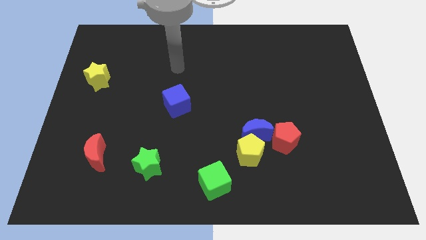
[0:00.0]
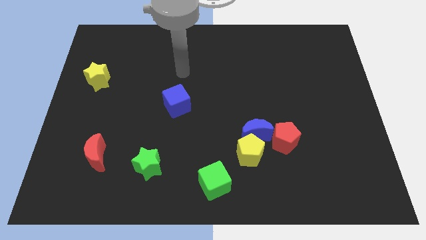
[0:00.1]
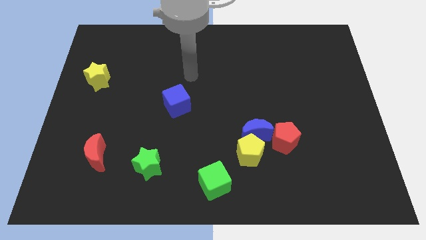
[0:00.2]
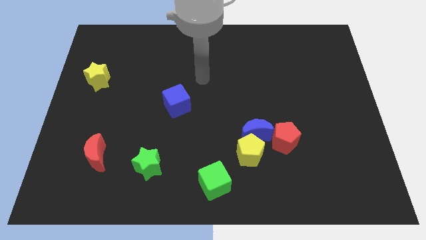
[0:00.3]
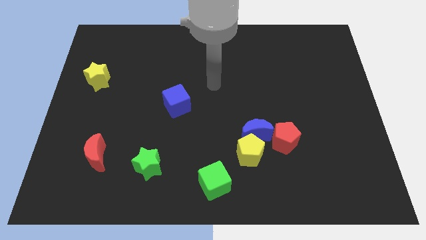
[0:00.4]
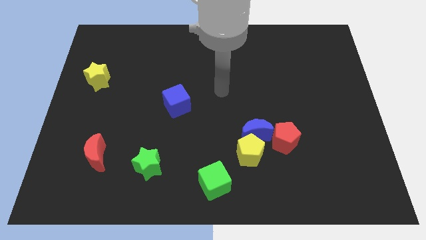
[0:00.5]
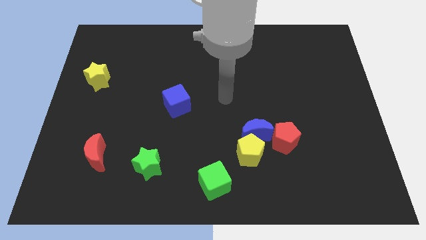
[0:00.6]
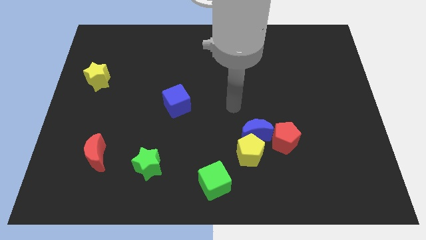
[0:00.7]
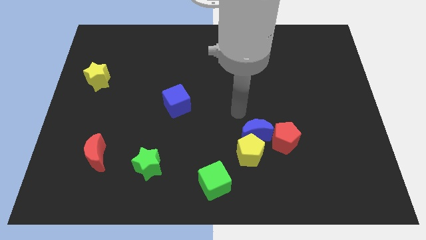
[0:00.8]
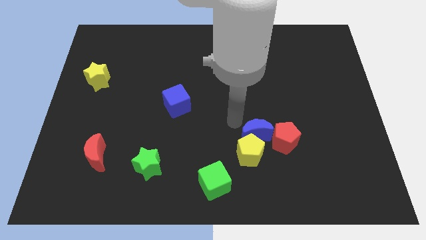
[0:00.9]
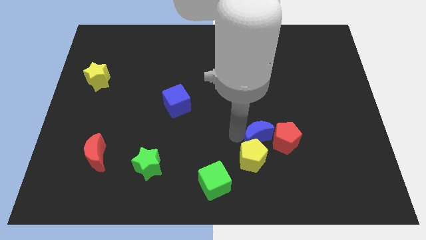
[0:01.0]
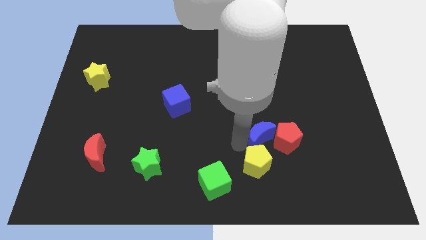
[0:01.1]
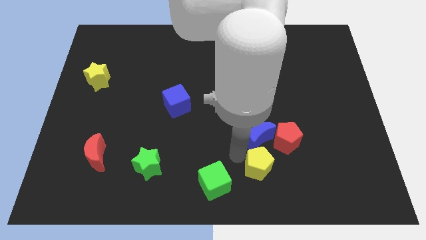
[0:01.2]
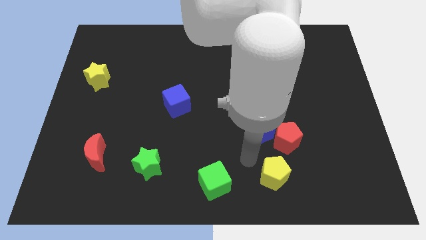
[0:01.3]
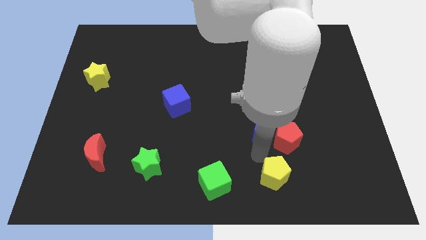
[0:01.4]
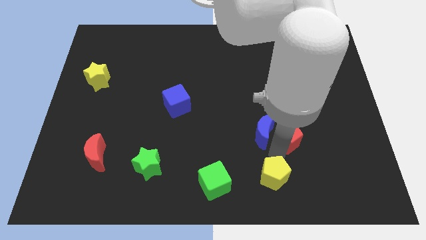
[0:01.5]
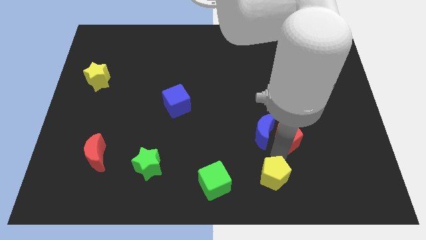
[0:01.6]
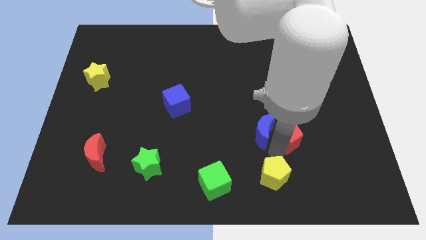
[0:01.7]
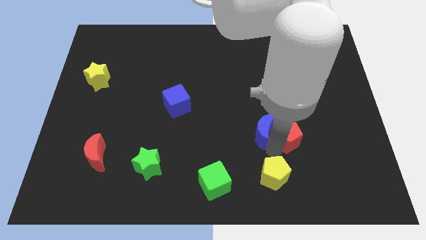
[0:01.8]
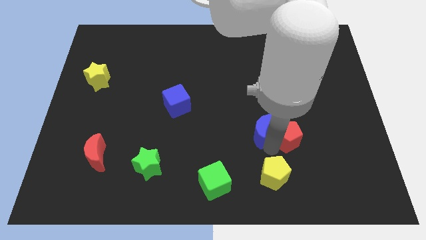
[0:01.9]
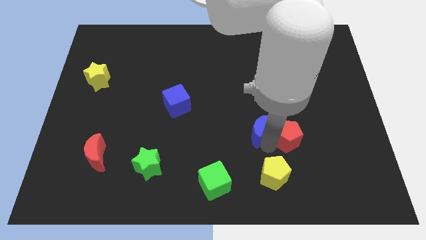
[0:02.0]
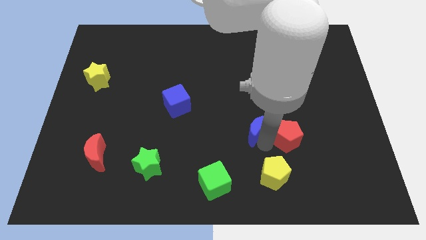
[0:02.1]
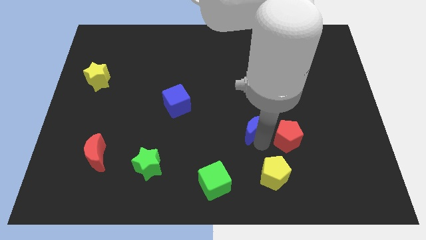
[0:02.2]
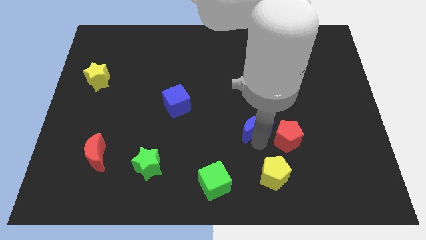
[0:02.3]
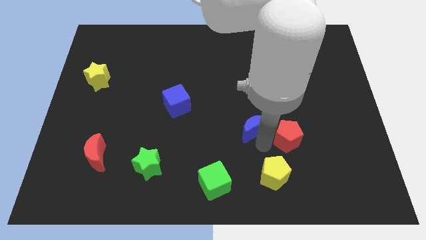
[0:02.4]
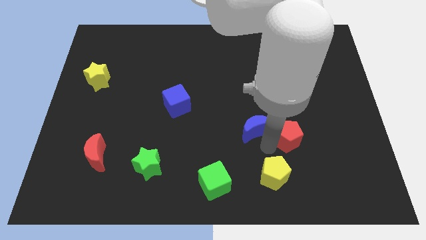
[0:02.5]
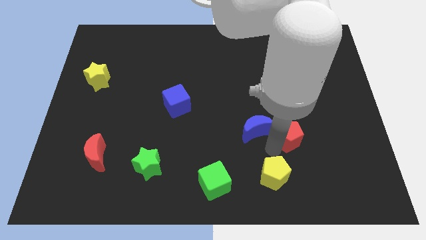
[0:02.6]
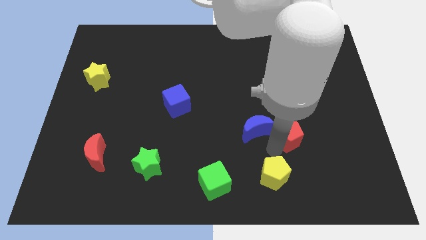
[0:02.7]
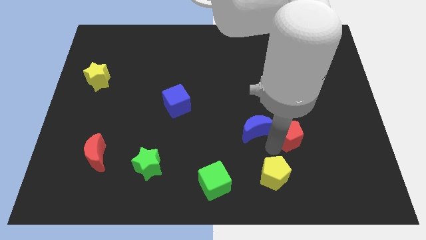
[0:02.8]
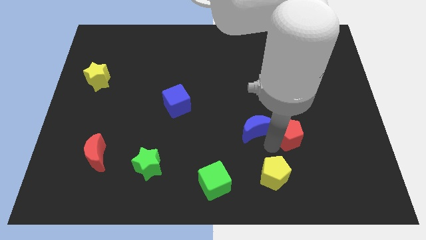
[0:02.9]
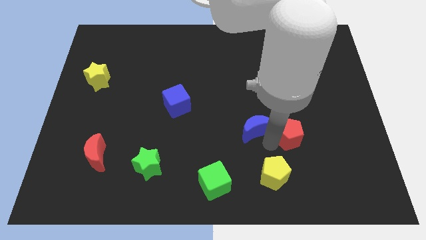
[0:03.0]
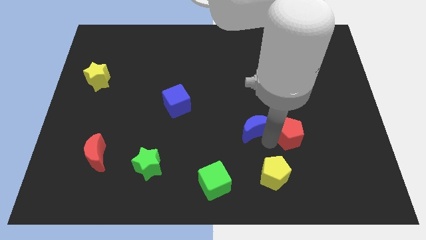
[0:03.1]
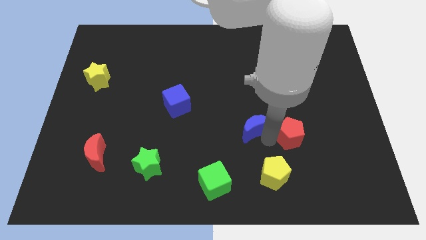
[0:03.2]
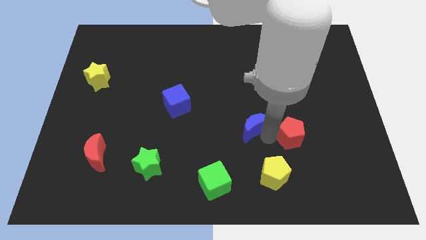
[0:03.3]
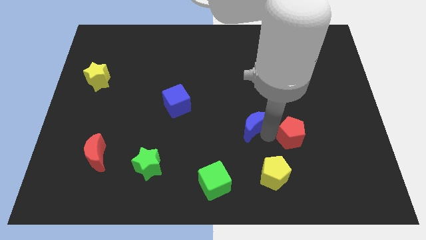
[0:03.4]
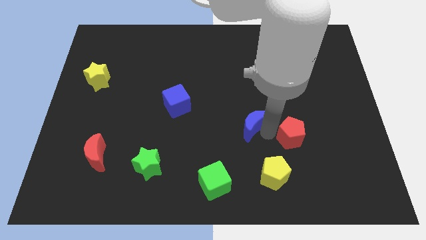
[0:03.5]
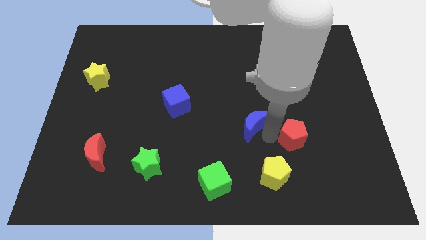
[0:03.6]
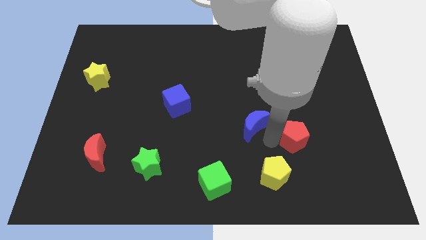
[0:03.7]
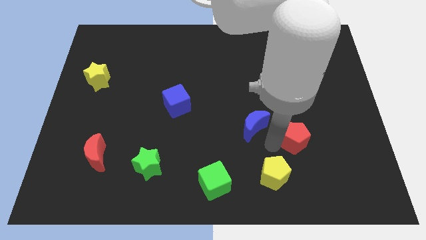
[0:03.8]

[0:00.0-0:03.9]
move the blue moon away from the yellow pentagon and red pentagon

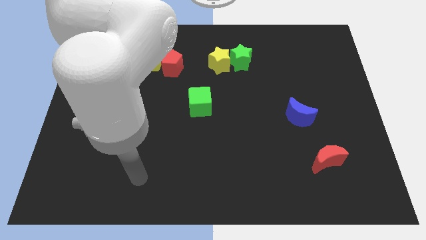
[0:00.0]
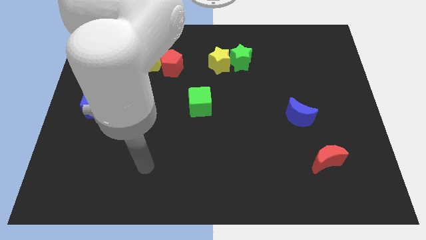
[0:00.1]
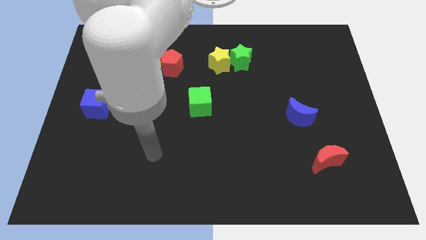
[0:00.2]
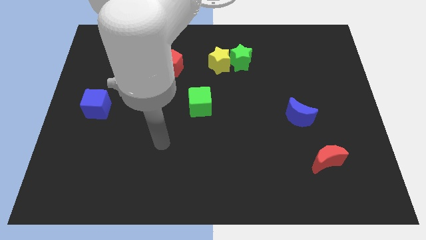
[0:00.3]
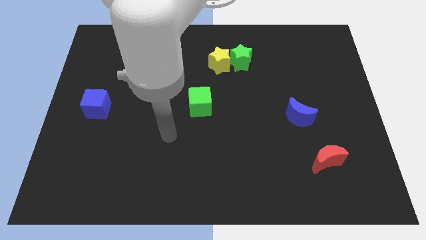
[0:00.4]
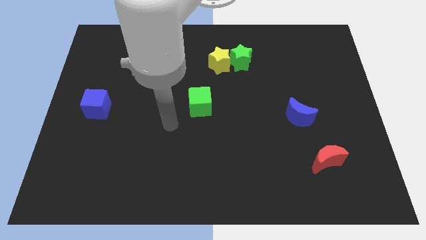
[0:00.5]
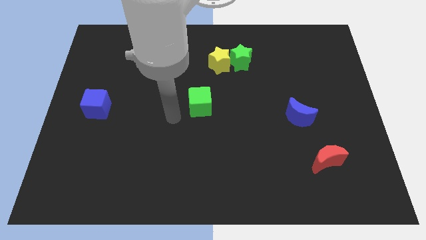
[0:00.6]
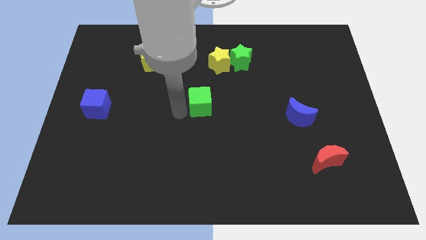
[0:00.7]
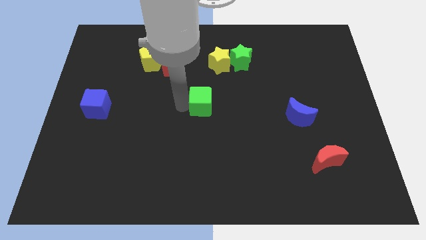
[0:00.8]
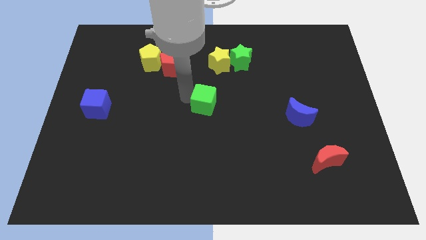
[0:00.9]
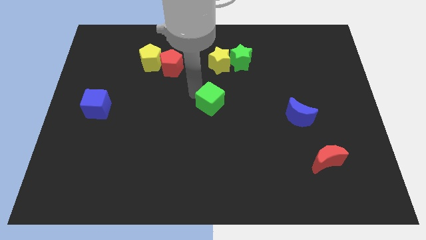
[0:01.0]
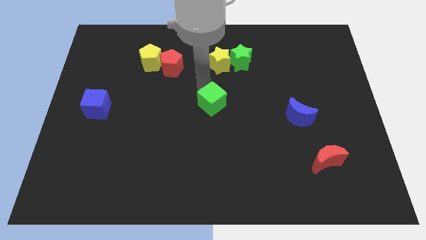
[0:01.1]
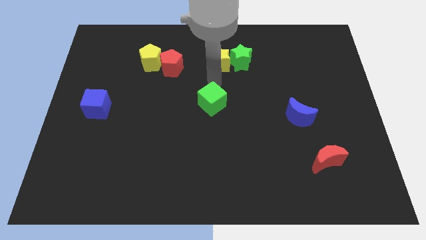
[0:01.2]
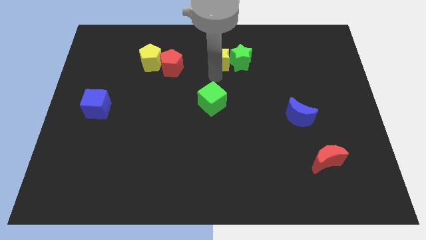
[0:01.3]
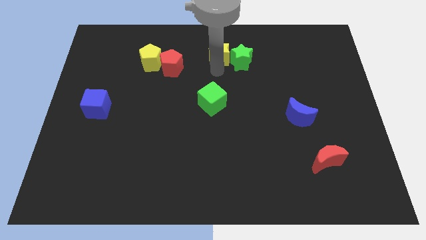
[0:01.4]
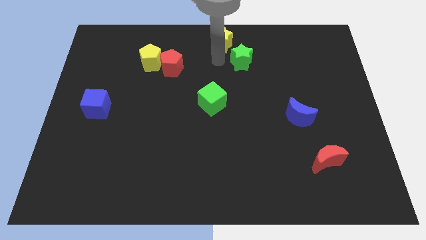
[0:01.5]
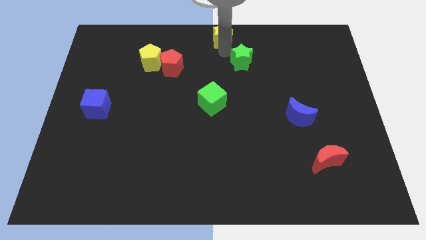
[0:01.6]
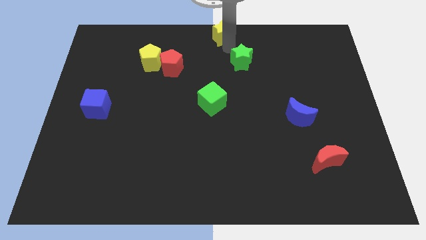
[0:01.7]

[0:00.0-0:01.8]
separate the green star from the yellow star

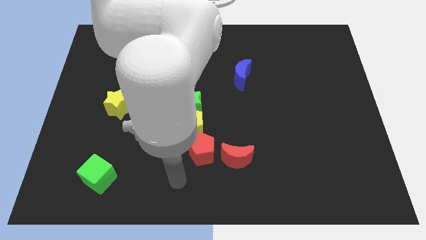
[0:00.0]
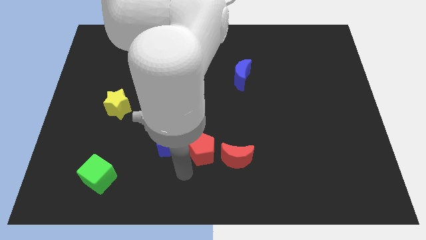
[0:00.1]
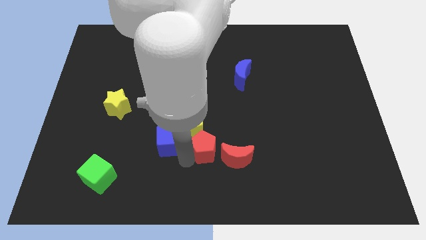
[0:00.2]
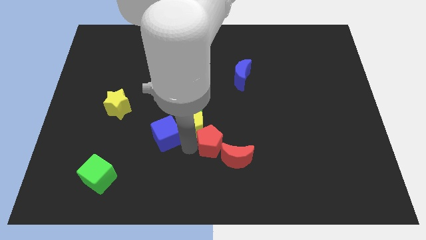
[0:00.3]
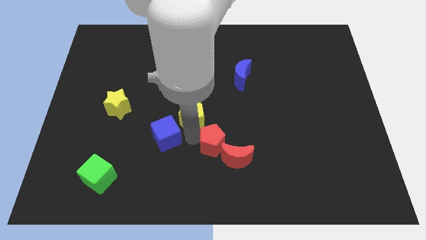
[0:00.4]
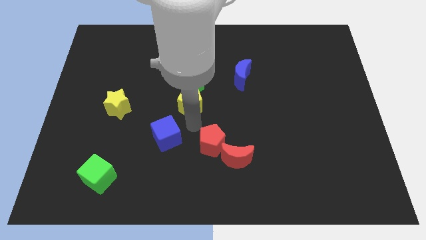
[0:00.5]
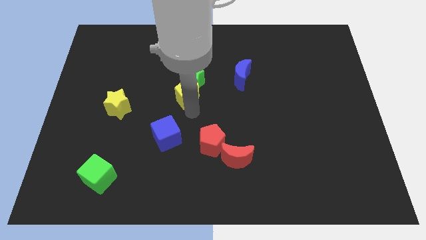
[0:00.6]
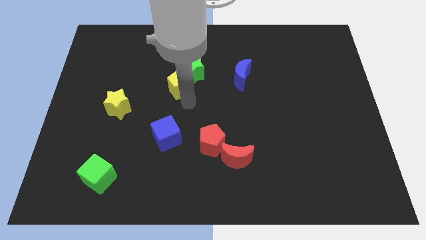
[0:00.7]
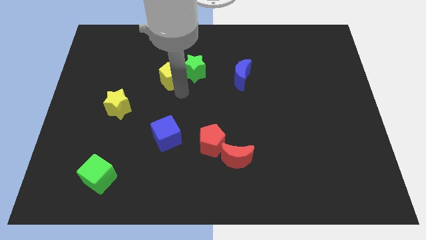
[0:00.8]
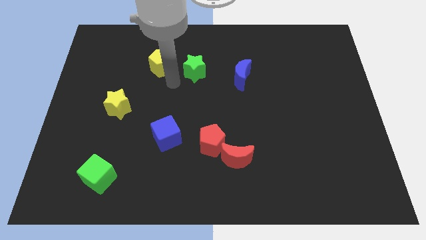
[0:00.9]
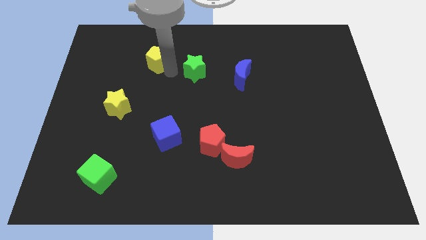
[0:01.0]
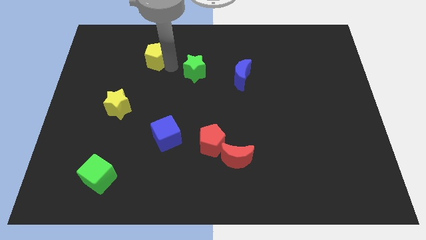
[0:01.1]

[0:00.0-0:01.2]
pull the green star apart from the yellow pentagon

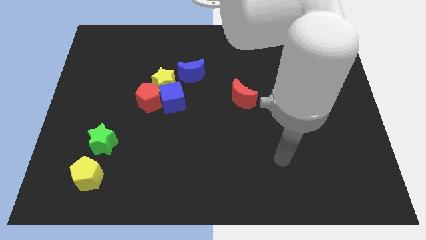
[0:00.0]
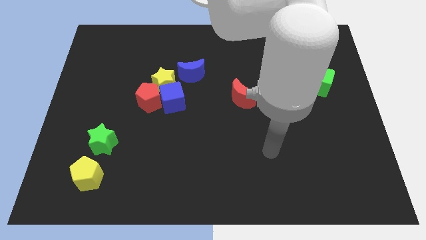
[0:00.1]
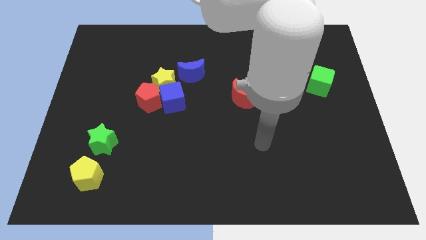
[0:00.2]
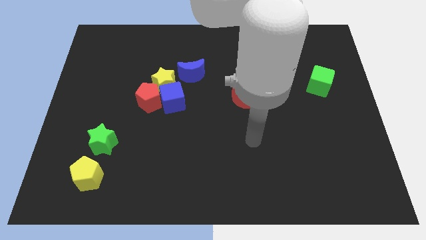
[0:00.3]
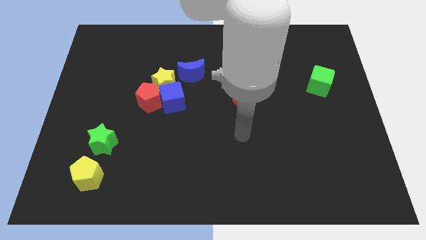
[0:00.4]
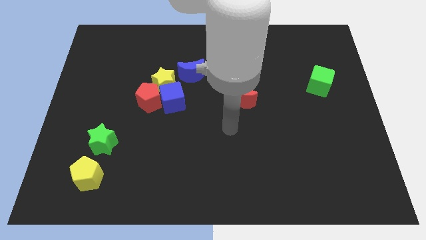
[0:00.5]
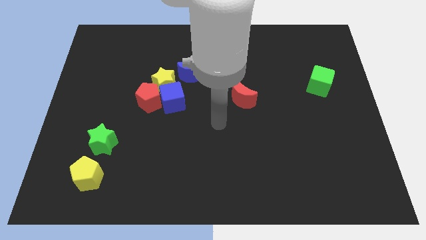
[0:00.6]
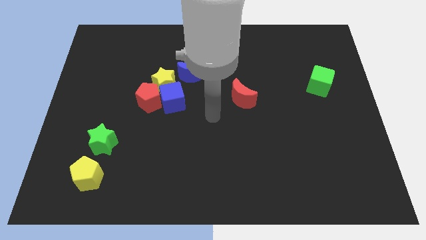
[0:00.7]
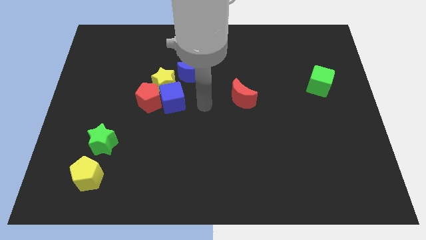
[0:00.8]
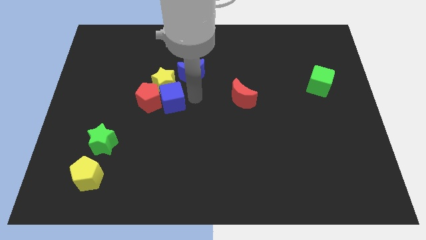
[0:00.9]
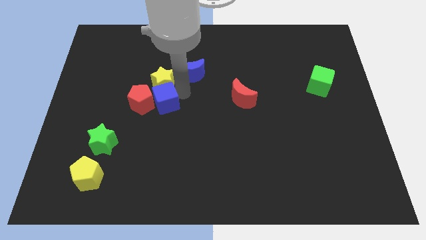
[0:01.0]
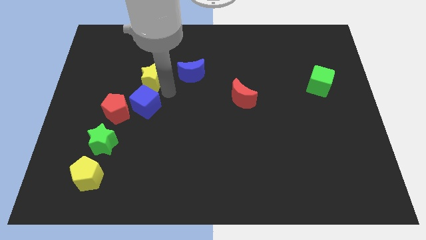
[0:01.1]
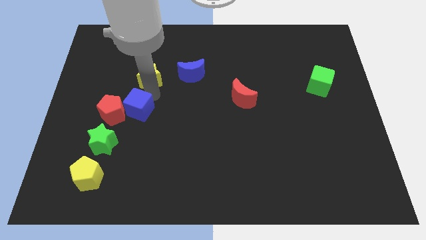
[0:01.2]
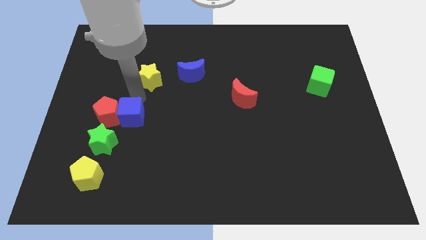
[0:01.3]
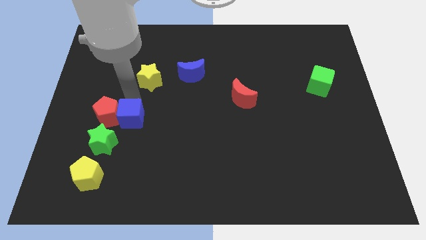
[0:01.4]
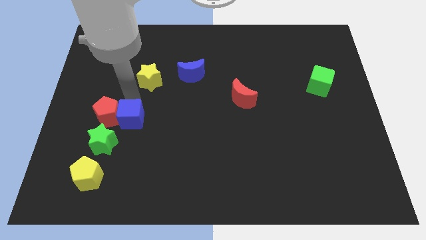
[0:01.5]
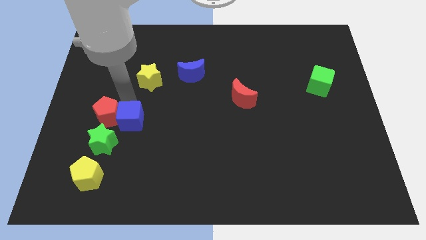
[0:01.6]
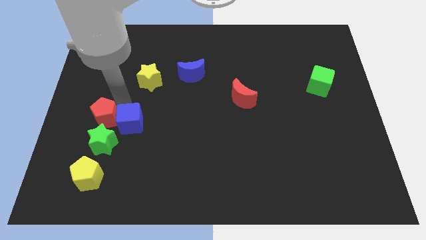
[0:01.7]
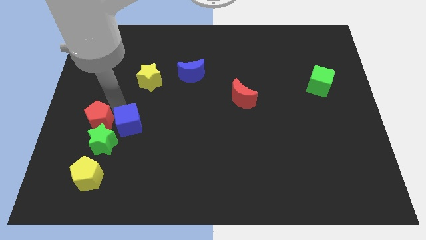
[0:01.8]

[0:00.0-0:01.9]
move the red pentagon away from the blue cube and yellow star

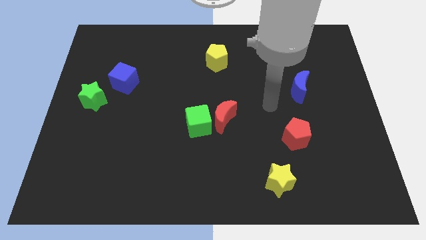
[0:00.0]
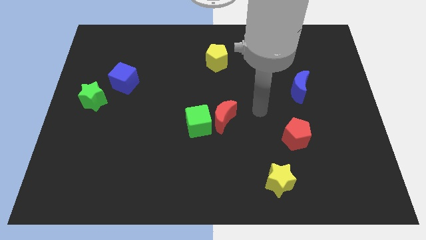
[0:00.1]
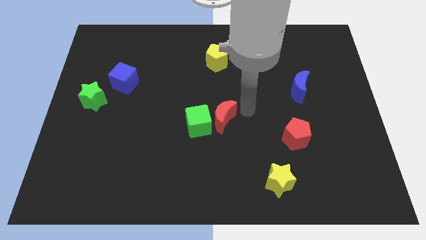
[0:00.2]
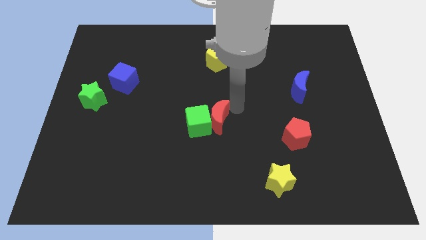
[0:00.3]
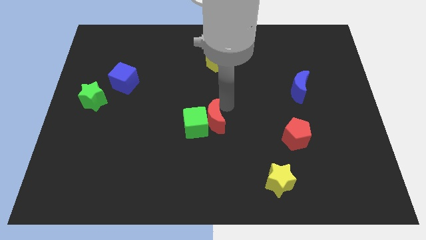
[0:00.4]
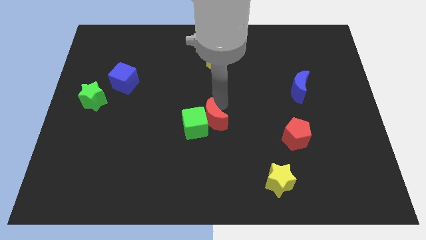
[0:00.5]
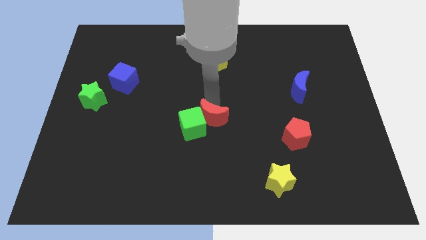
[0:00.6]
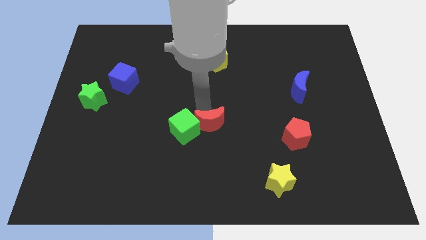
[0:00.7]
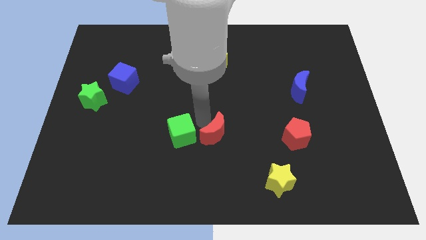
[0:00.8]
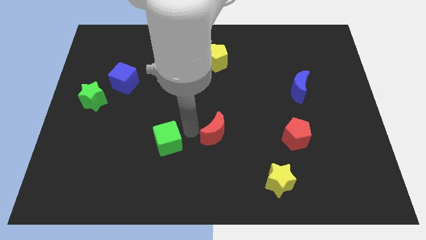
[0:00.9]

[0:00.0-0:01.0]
separate the red moon from the green cube
